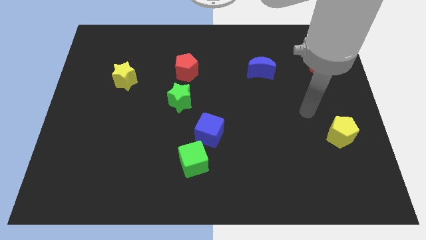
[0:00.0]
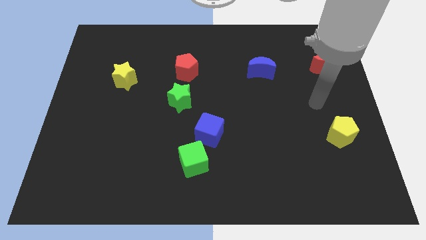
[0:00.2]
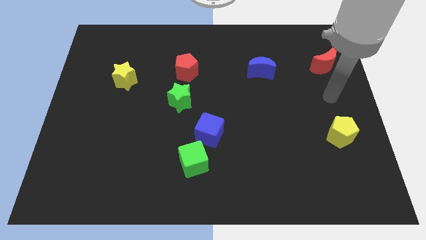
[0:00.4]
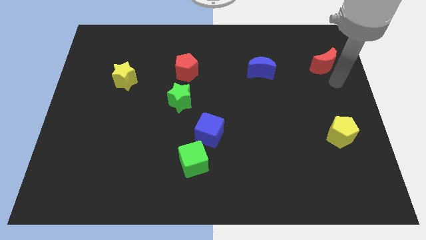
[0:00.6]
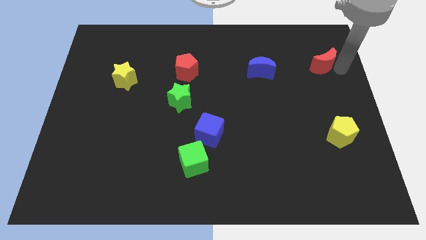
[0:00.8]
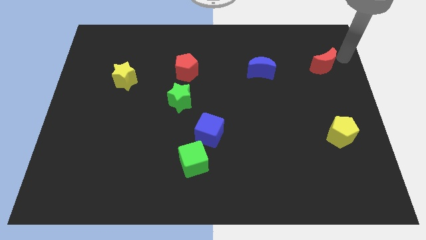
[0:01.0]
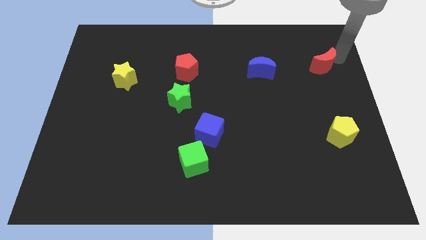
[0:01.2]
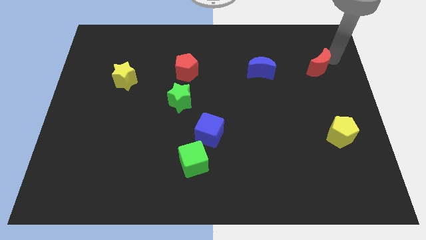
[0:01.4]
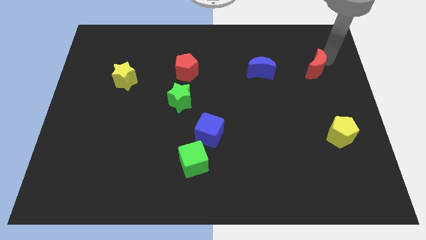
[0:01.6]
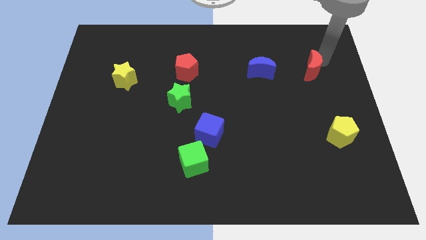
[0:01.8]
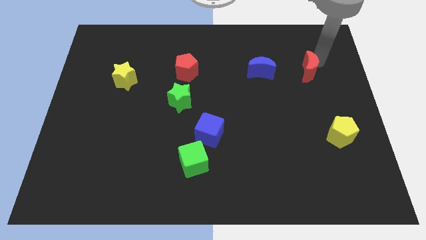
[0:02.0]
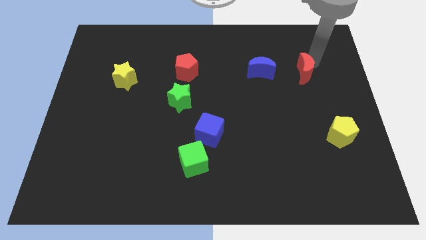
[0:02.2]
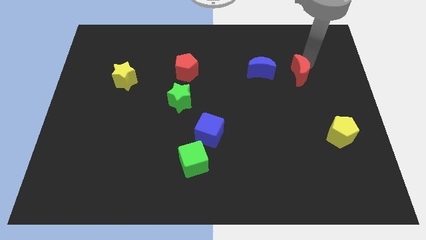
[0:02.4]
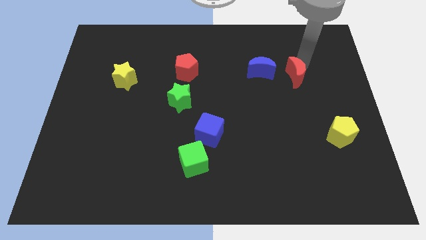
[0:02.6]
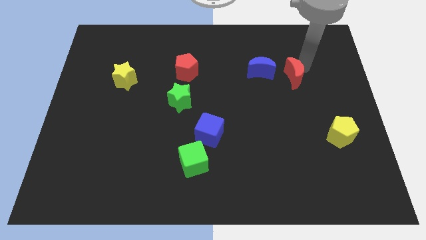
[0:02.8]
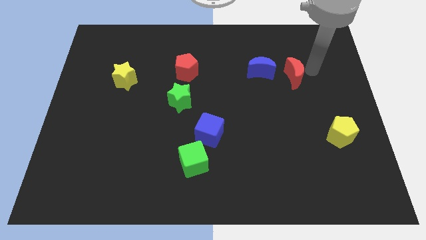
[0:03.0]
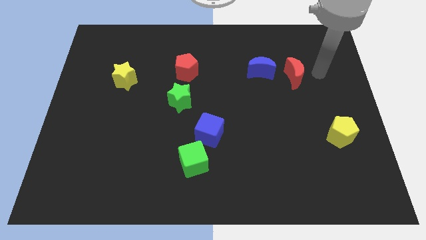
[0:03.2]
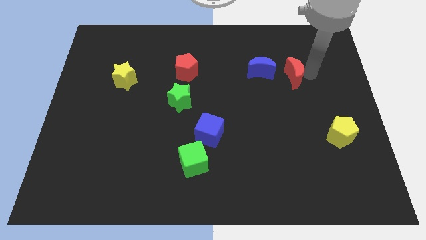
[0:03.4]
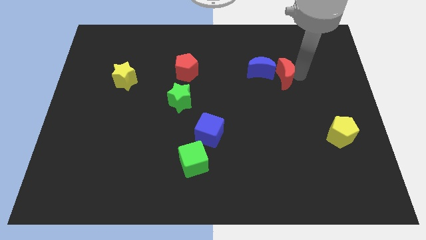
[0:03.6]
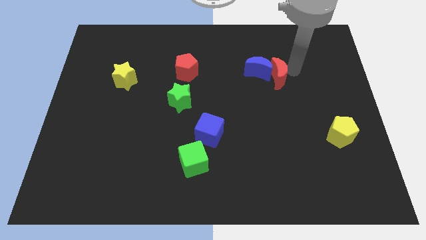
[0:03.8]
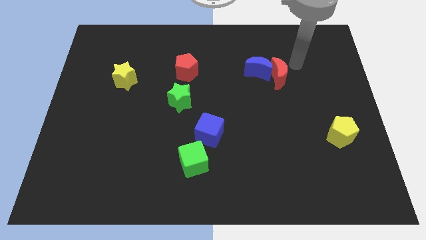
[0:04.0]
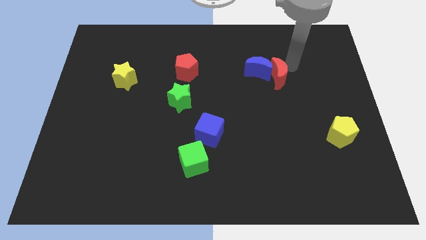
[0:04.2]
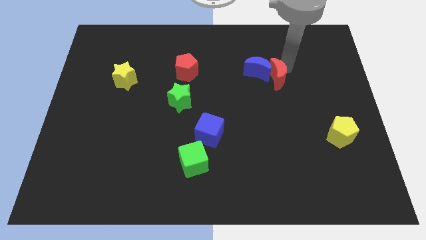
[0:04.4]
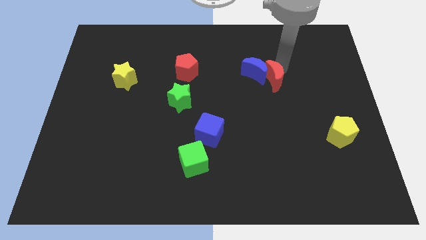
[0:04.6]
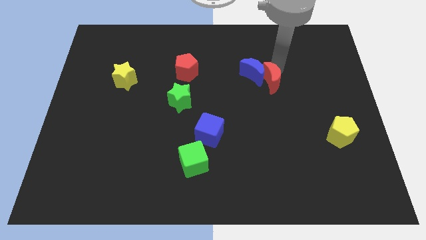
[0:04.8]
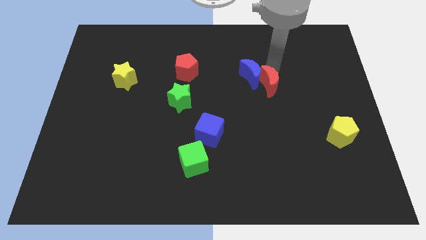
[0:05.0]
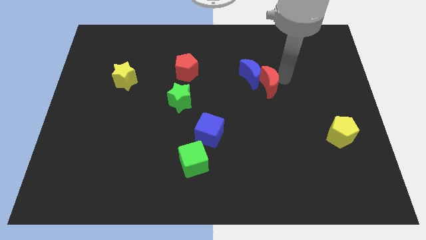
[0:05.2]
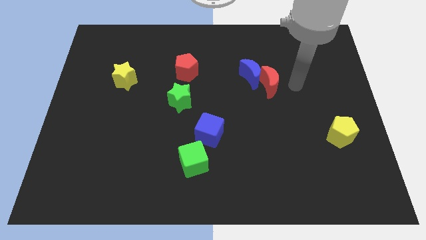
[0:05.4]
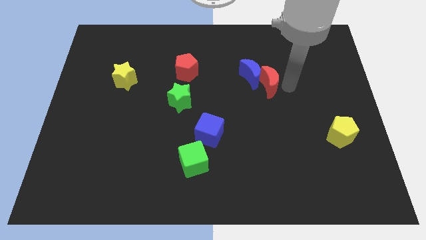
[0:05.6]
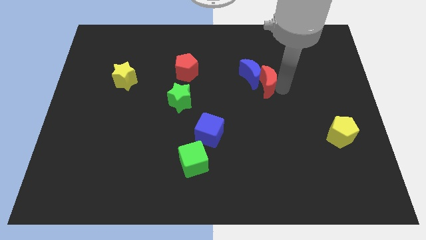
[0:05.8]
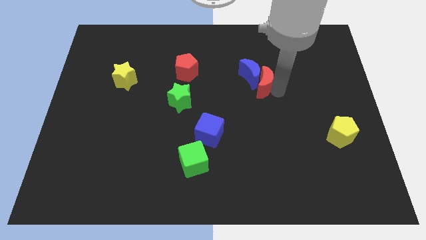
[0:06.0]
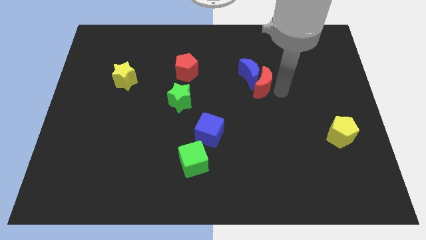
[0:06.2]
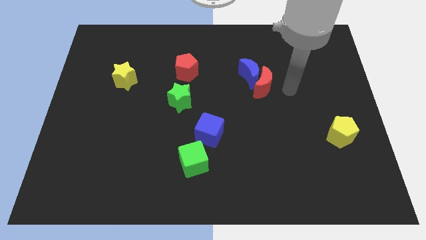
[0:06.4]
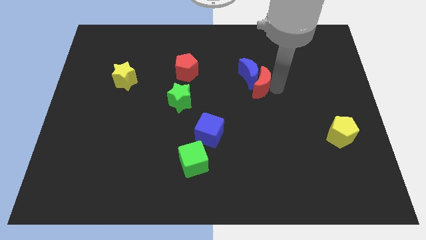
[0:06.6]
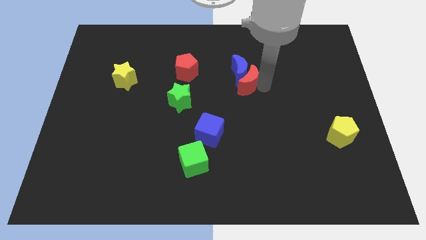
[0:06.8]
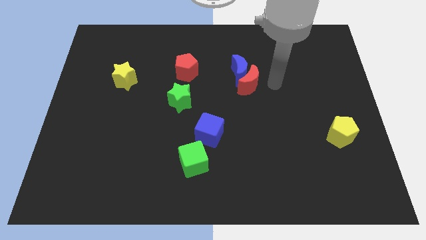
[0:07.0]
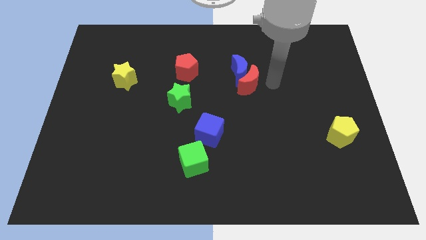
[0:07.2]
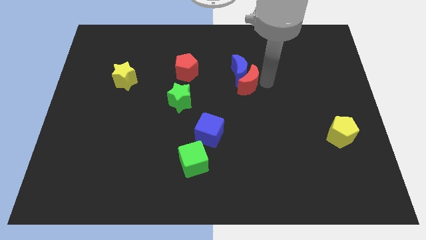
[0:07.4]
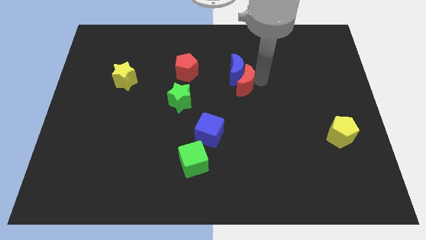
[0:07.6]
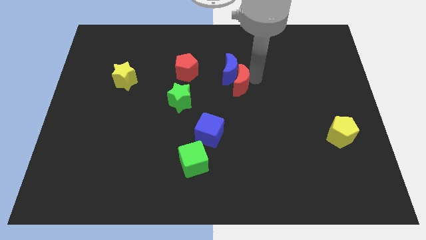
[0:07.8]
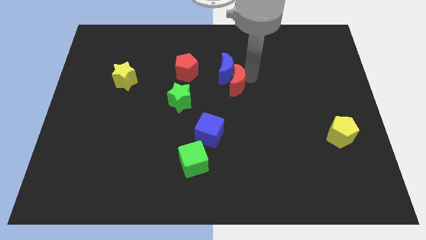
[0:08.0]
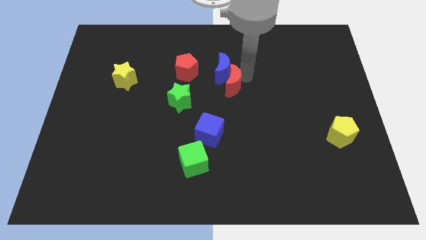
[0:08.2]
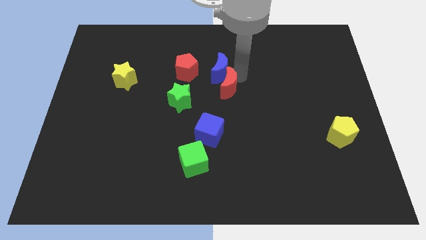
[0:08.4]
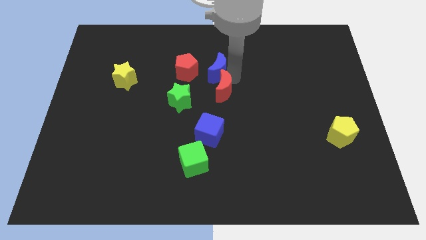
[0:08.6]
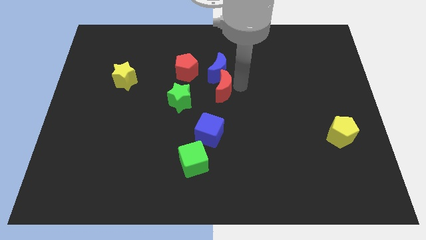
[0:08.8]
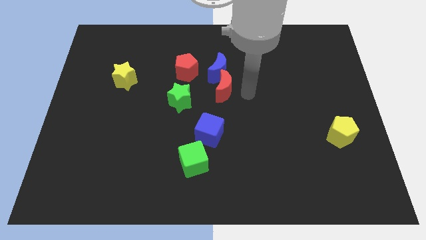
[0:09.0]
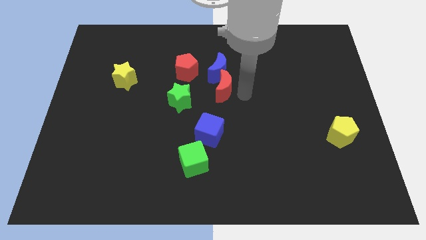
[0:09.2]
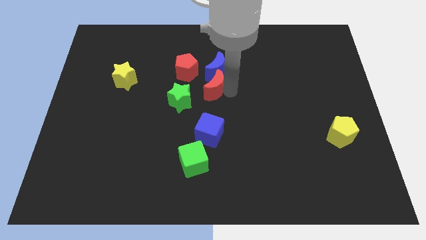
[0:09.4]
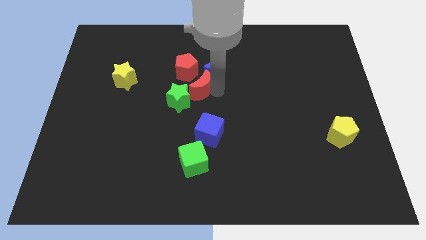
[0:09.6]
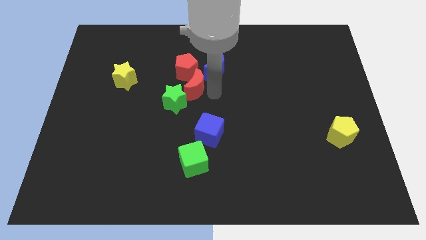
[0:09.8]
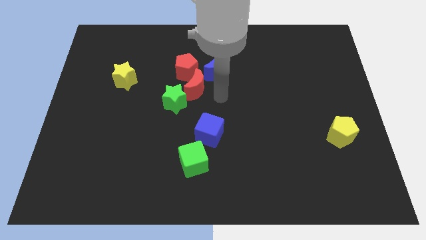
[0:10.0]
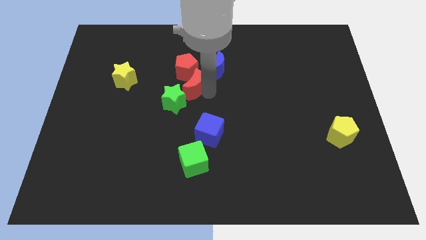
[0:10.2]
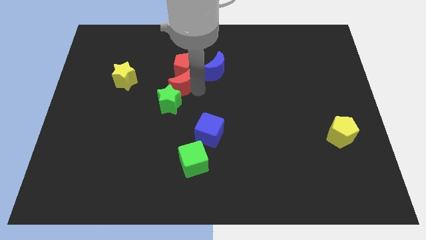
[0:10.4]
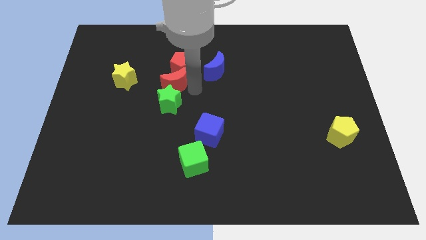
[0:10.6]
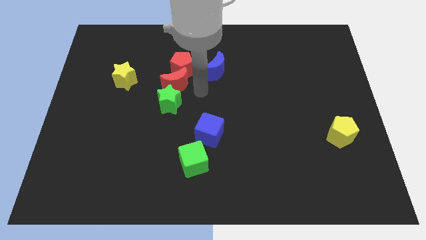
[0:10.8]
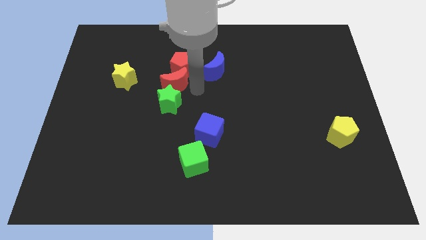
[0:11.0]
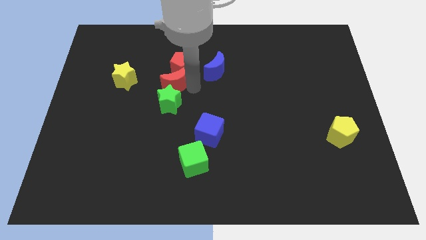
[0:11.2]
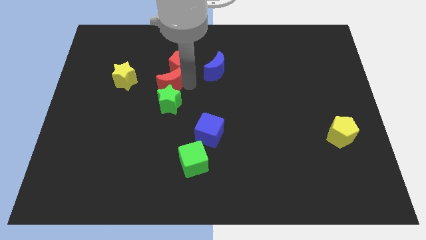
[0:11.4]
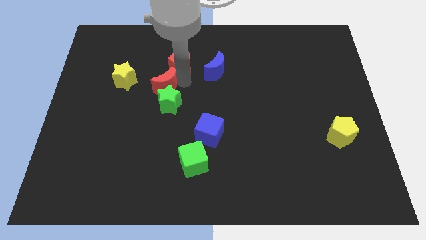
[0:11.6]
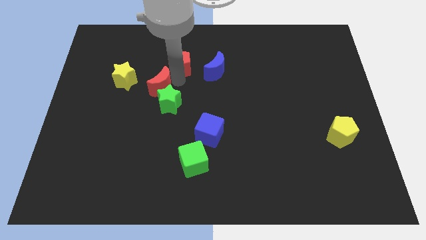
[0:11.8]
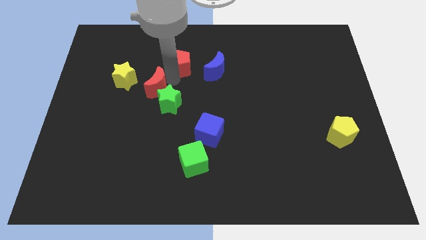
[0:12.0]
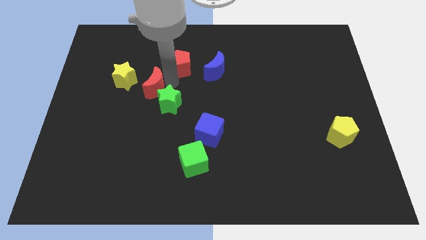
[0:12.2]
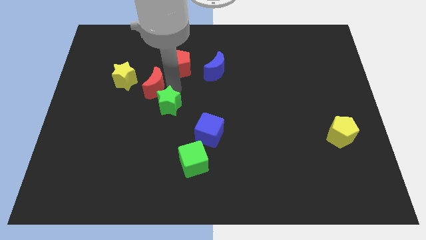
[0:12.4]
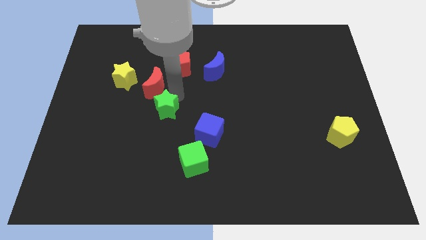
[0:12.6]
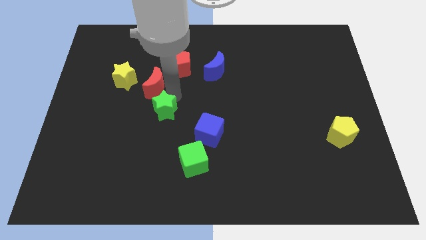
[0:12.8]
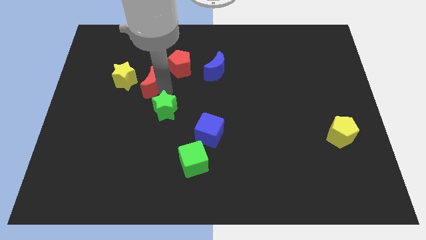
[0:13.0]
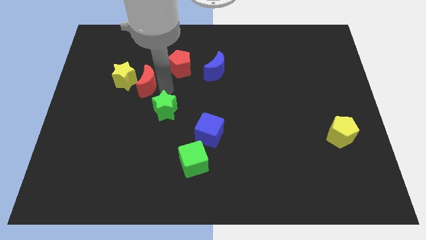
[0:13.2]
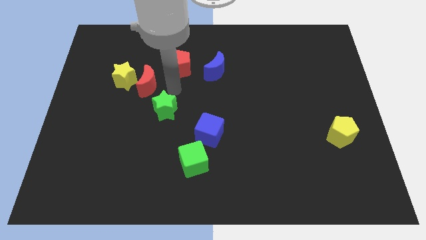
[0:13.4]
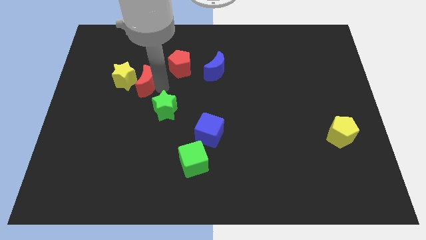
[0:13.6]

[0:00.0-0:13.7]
slide the red moon close to the yellow star

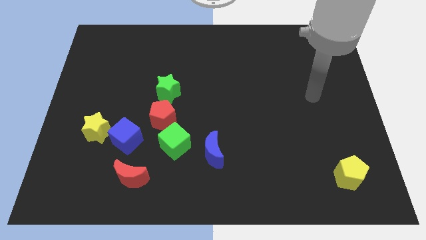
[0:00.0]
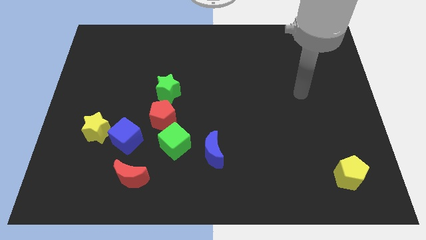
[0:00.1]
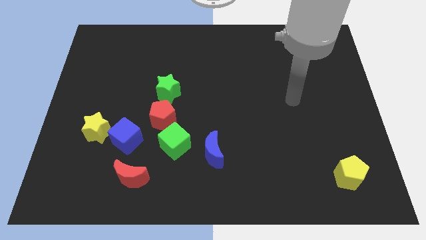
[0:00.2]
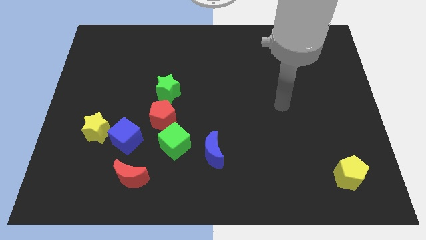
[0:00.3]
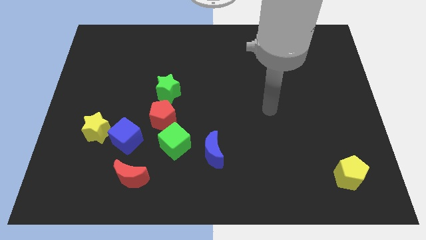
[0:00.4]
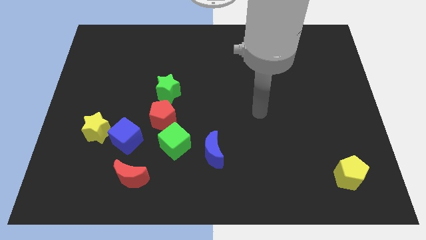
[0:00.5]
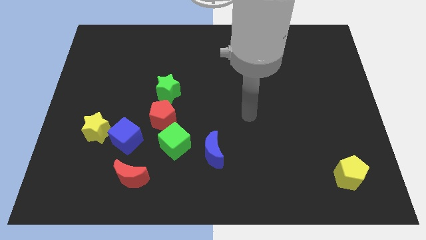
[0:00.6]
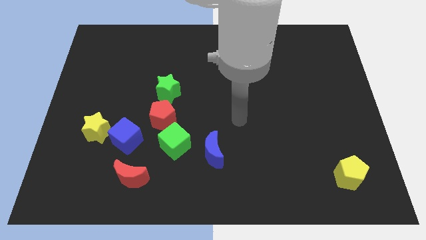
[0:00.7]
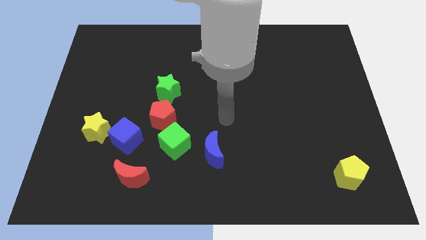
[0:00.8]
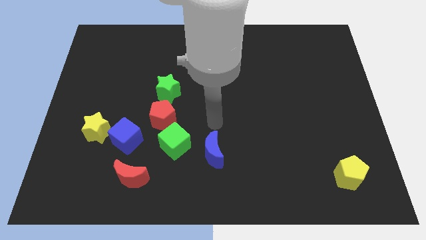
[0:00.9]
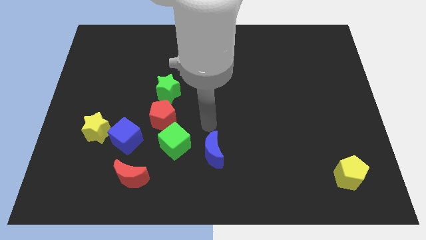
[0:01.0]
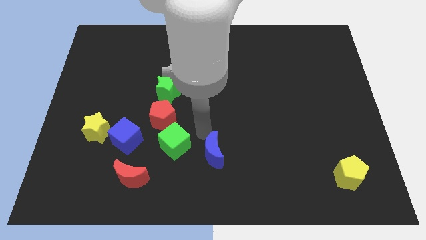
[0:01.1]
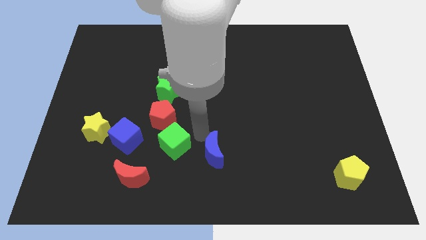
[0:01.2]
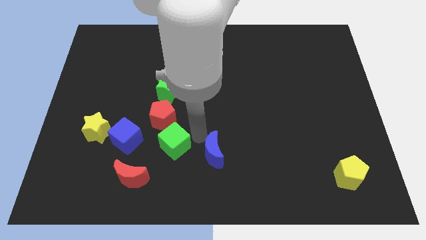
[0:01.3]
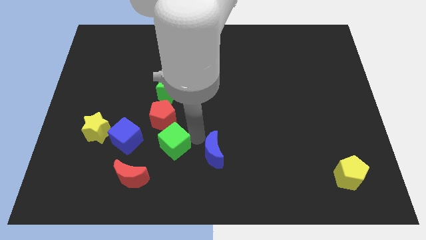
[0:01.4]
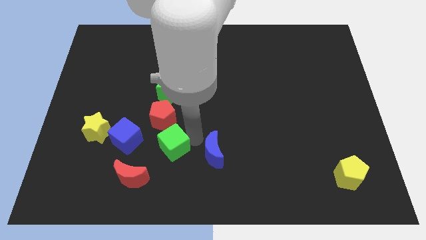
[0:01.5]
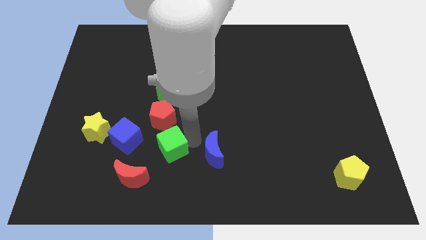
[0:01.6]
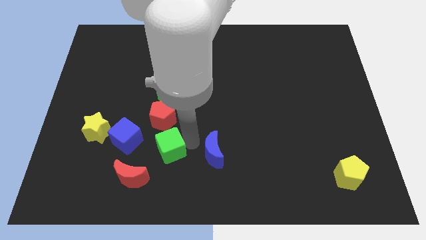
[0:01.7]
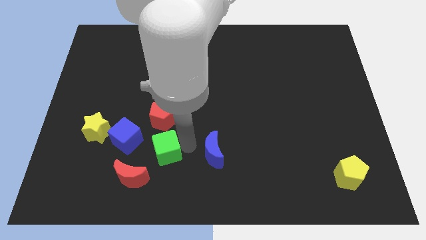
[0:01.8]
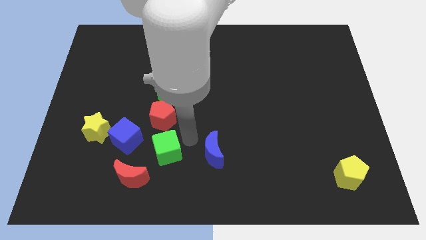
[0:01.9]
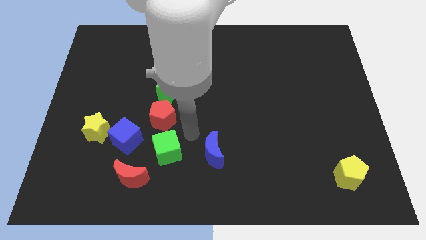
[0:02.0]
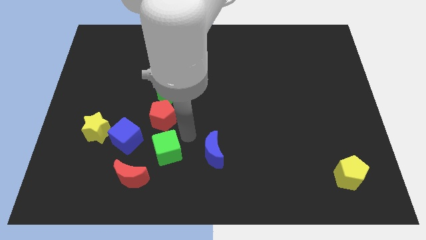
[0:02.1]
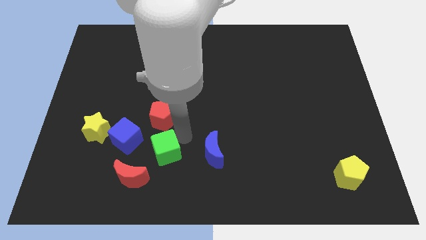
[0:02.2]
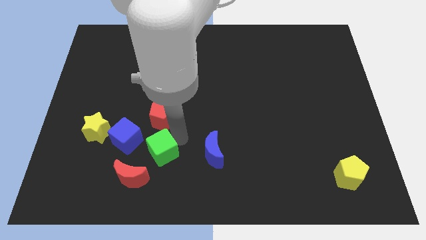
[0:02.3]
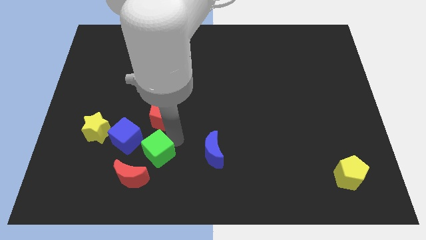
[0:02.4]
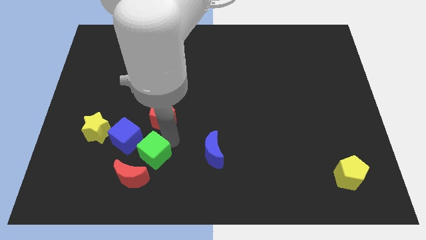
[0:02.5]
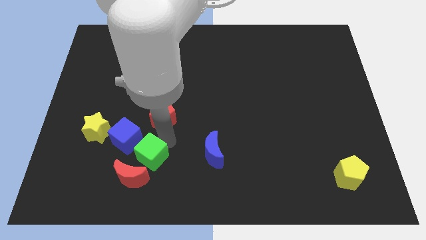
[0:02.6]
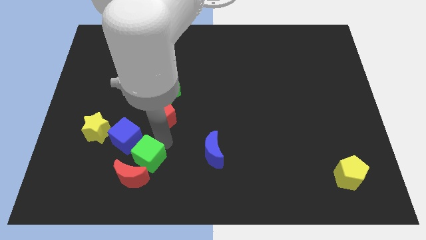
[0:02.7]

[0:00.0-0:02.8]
slide the green cube close to the red moon
